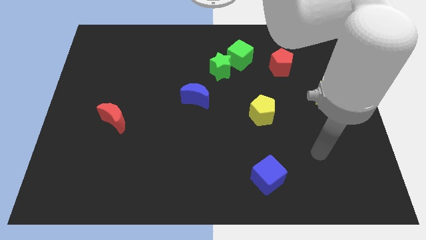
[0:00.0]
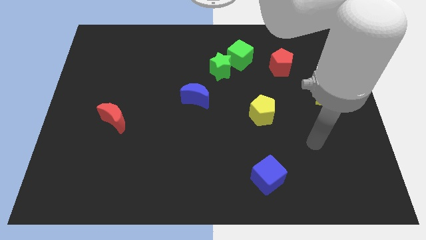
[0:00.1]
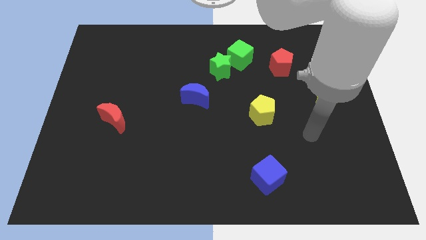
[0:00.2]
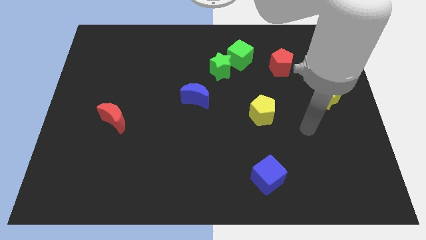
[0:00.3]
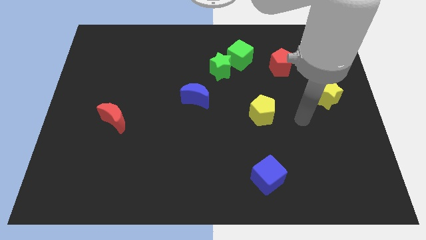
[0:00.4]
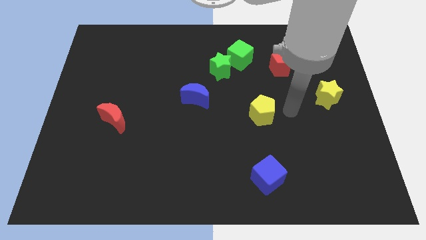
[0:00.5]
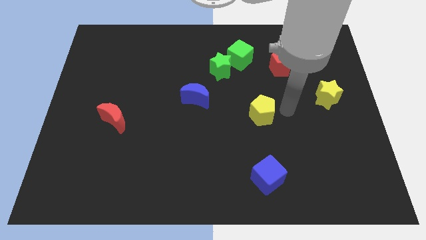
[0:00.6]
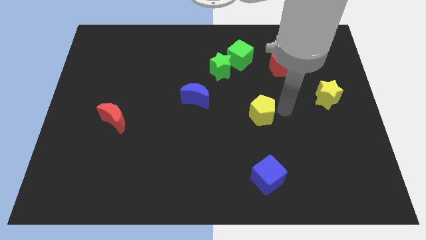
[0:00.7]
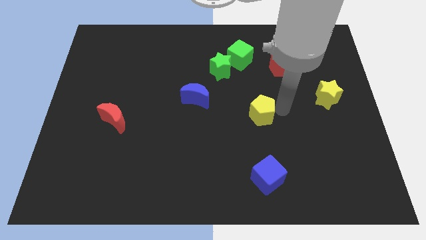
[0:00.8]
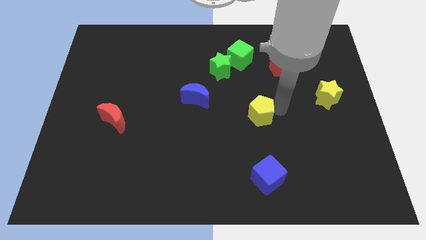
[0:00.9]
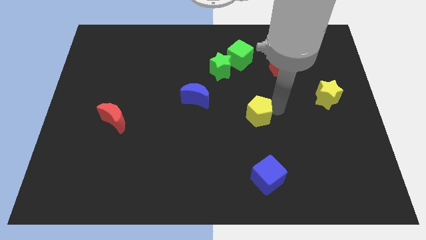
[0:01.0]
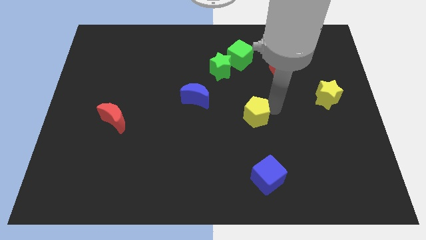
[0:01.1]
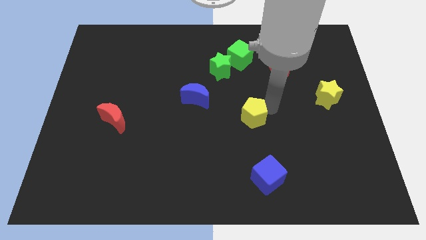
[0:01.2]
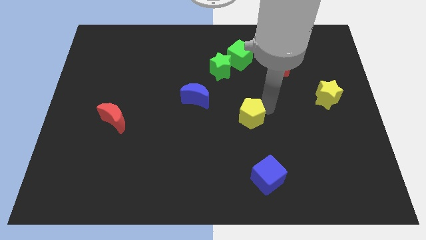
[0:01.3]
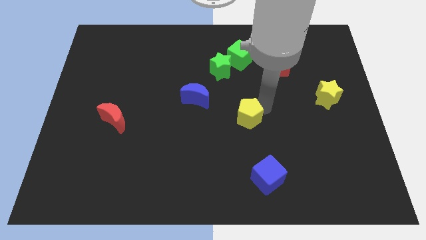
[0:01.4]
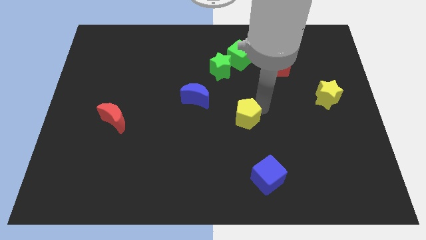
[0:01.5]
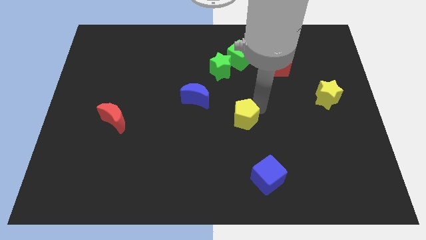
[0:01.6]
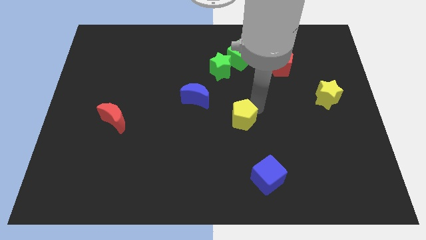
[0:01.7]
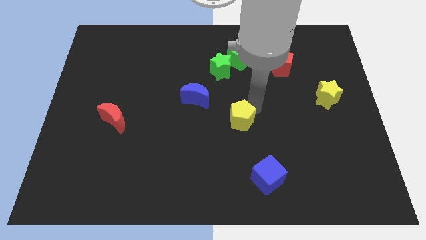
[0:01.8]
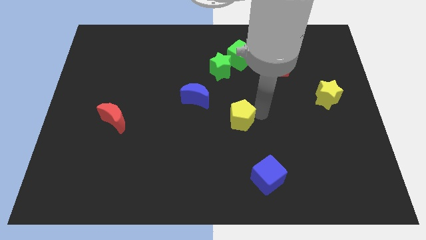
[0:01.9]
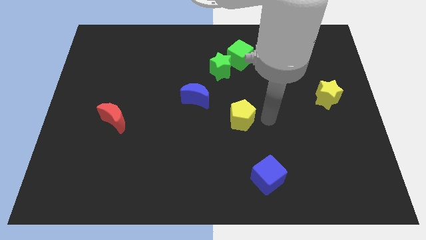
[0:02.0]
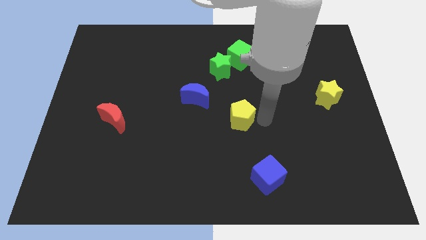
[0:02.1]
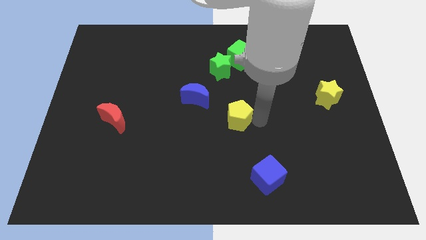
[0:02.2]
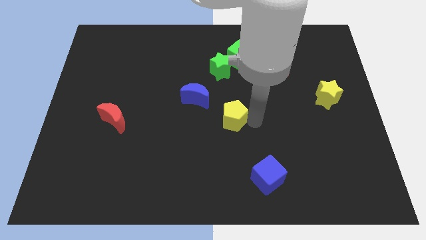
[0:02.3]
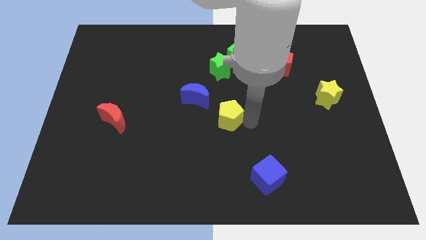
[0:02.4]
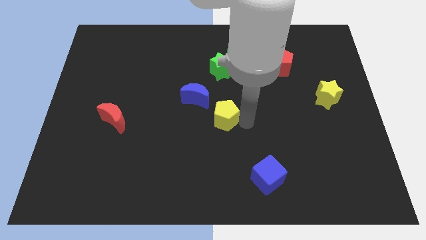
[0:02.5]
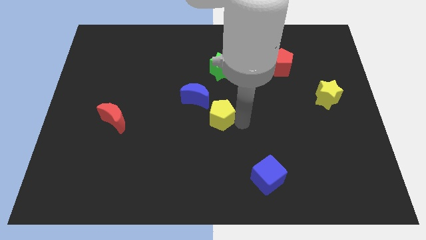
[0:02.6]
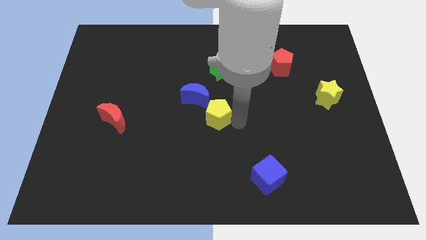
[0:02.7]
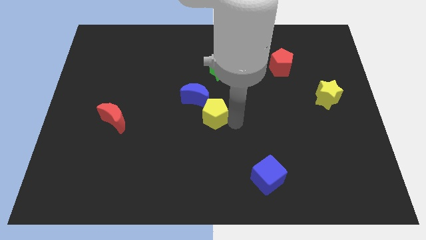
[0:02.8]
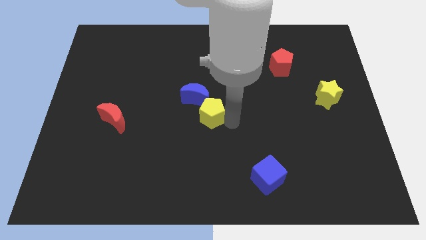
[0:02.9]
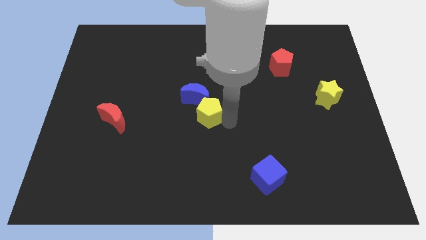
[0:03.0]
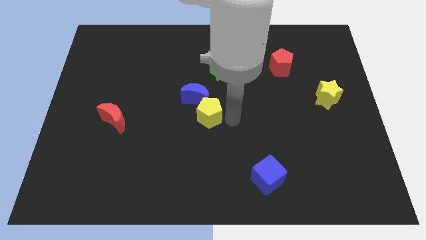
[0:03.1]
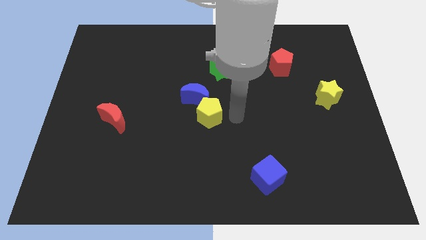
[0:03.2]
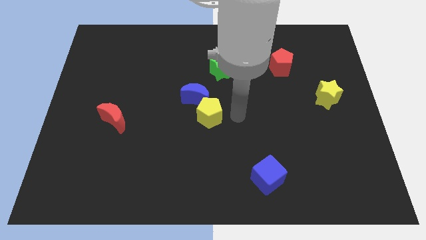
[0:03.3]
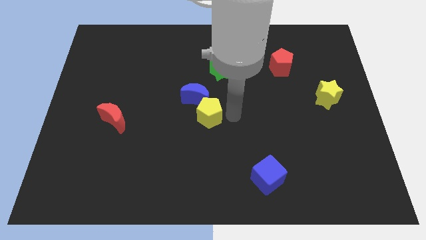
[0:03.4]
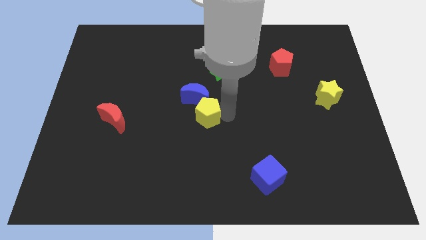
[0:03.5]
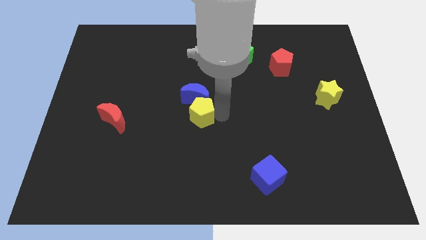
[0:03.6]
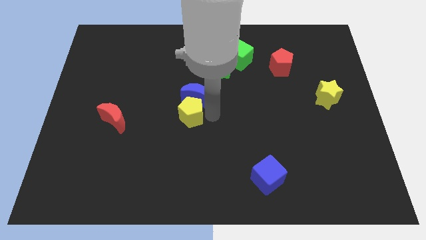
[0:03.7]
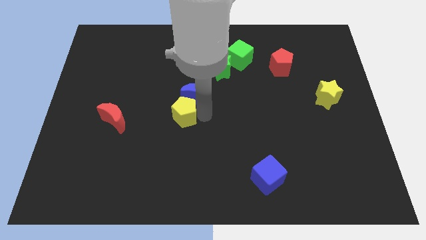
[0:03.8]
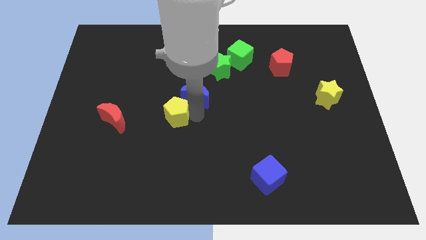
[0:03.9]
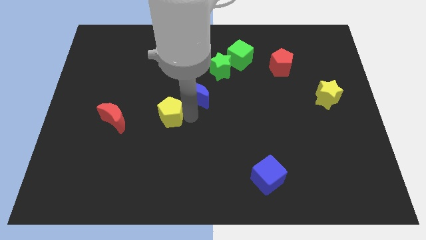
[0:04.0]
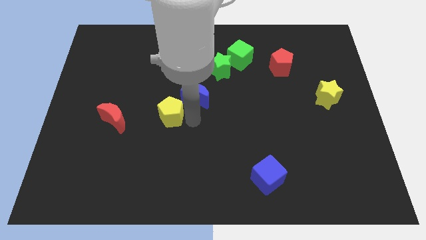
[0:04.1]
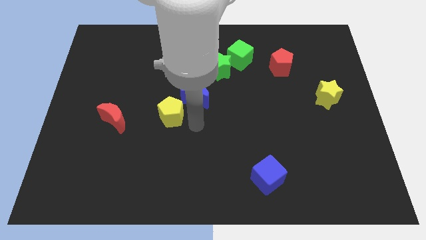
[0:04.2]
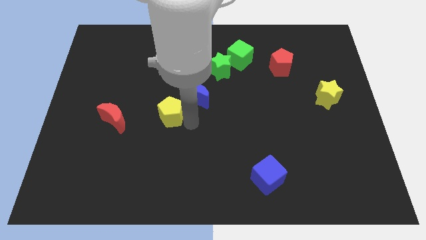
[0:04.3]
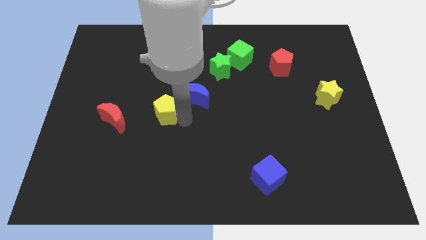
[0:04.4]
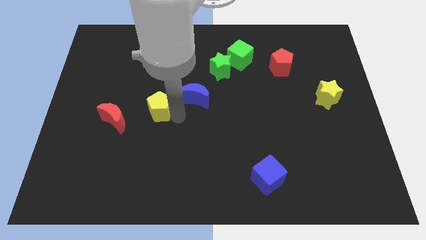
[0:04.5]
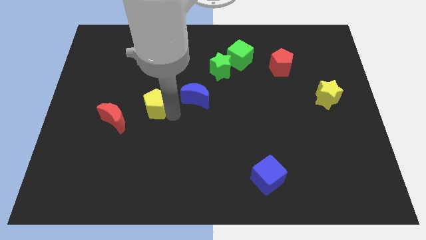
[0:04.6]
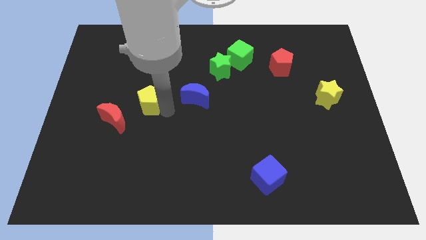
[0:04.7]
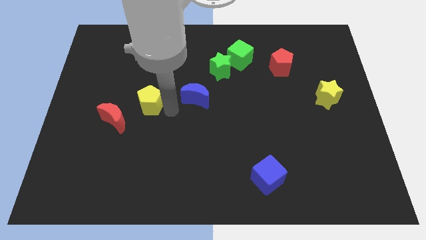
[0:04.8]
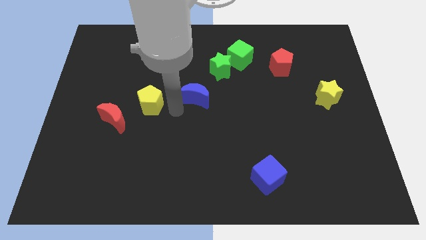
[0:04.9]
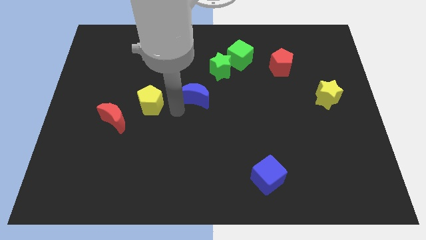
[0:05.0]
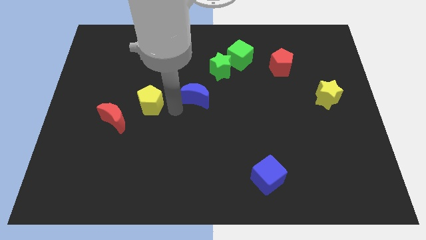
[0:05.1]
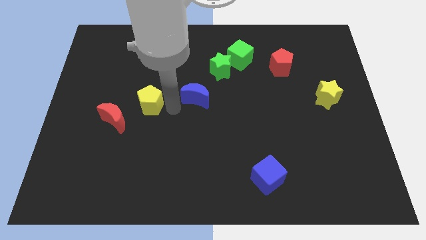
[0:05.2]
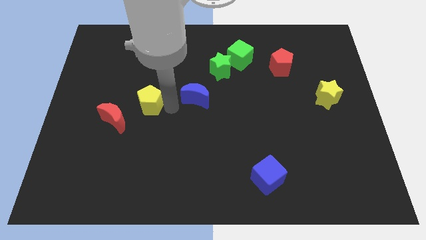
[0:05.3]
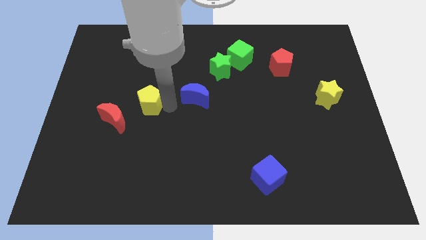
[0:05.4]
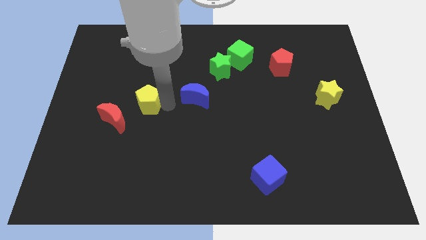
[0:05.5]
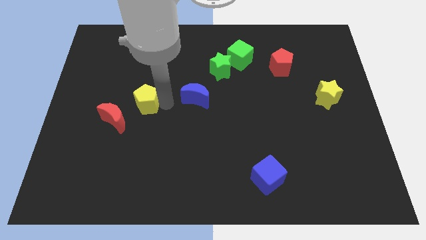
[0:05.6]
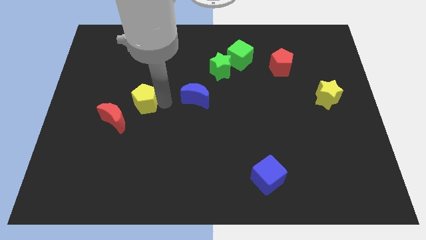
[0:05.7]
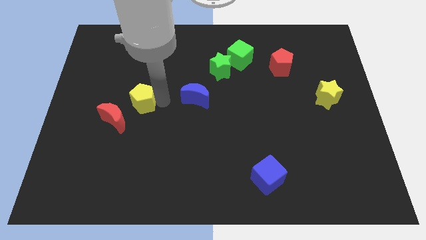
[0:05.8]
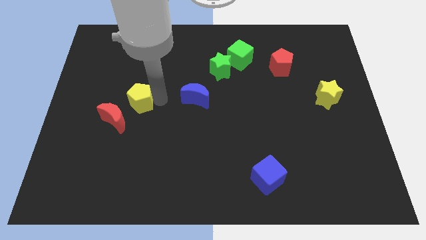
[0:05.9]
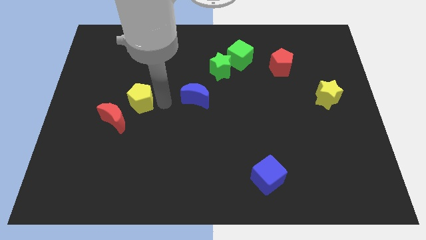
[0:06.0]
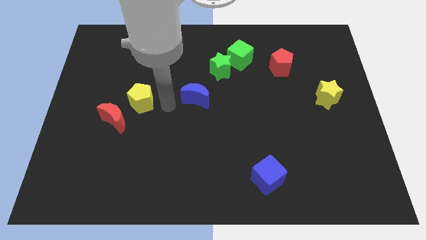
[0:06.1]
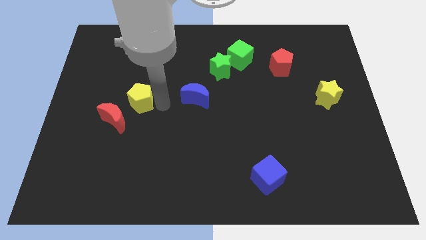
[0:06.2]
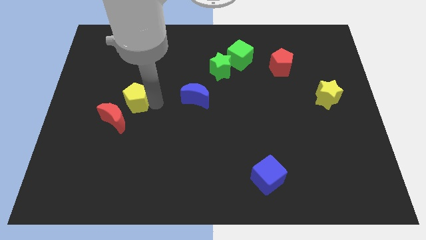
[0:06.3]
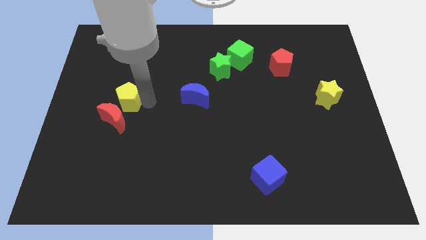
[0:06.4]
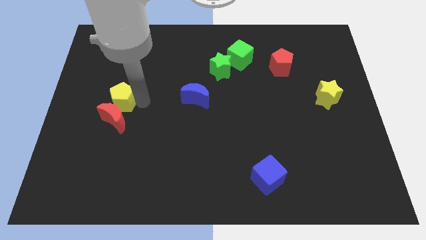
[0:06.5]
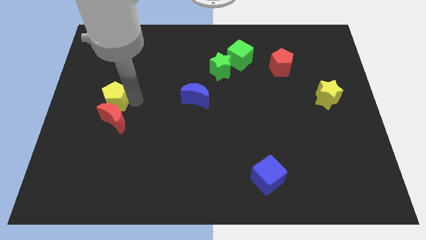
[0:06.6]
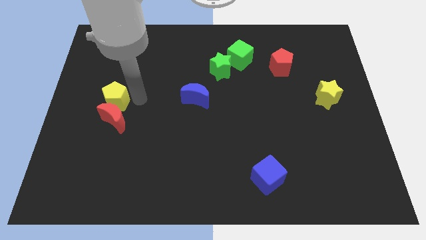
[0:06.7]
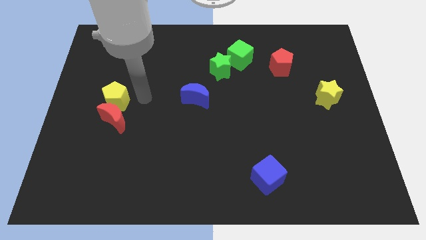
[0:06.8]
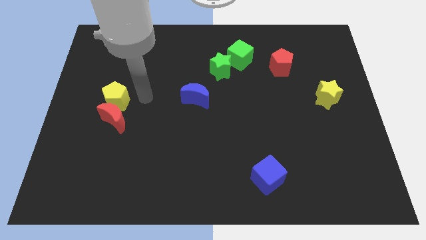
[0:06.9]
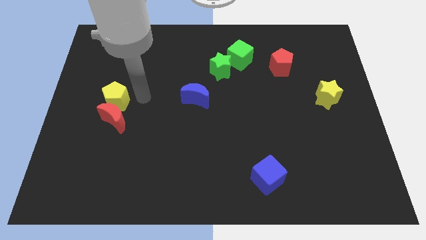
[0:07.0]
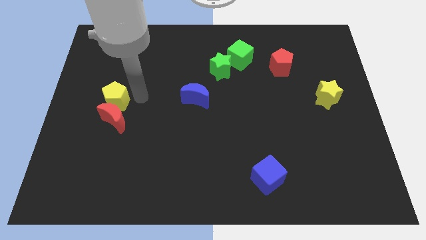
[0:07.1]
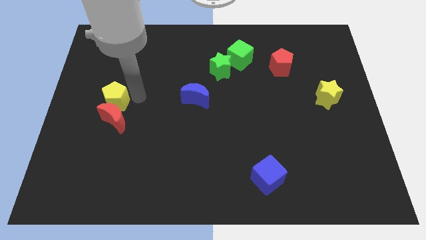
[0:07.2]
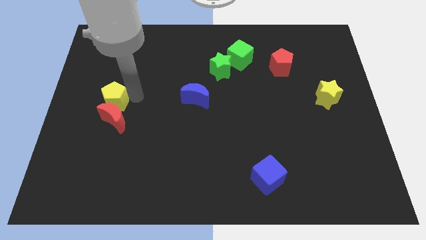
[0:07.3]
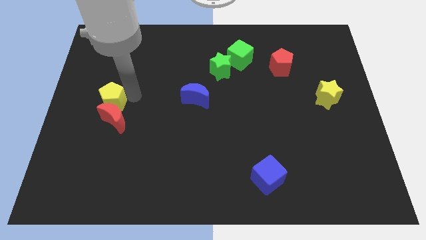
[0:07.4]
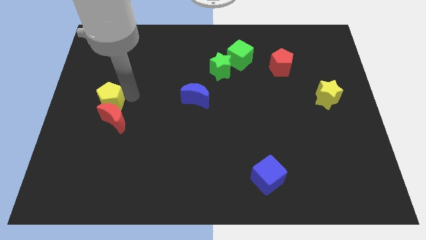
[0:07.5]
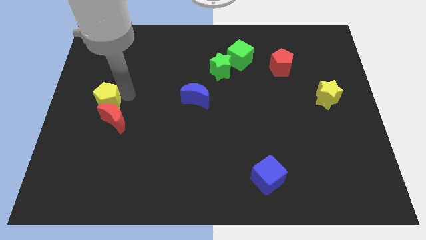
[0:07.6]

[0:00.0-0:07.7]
move the yellow pentagon to the left side
